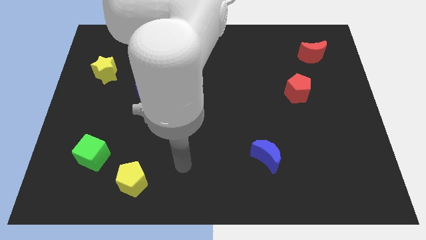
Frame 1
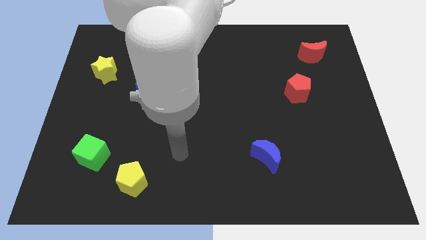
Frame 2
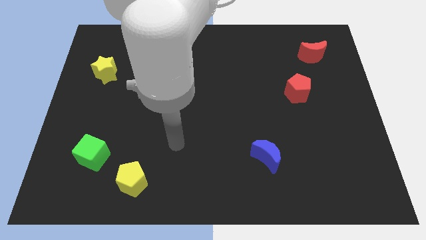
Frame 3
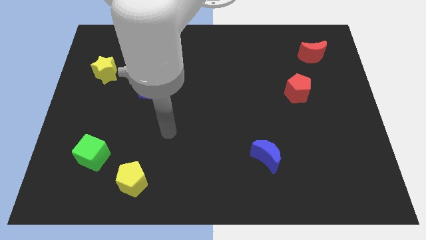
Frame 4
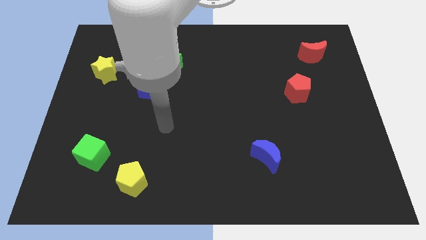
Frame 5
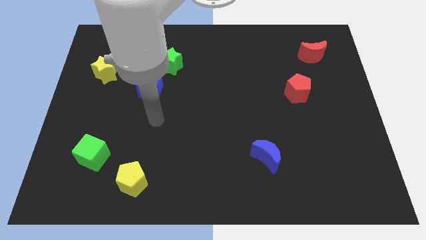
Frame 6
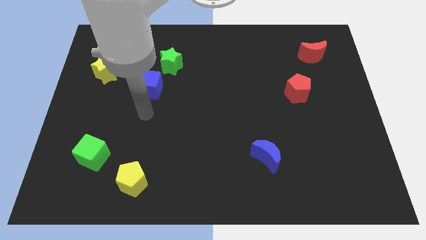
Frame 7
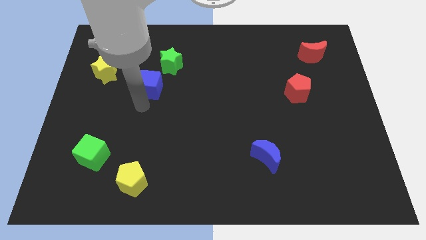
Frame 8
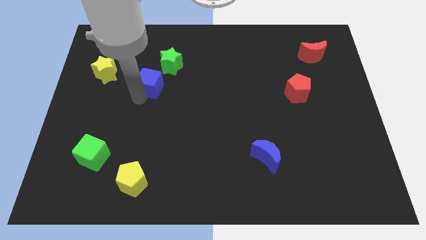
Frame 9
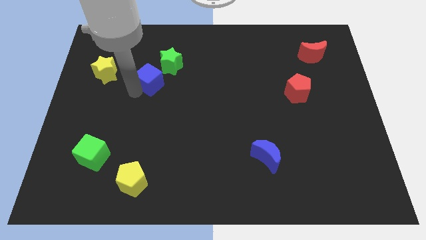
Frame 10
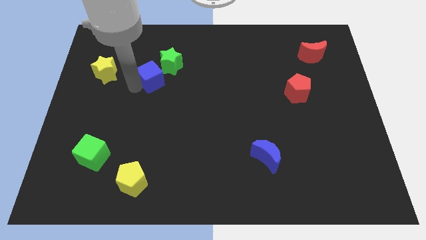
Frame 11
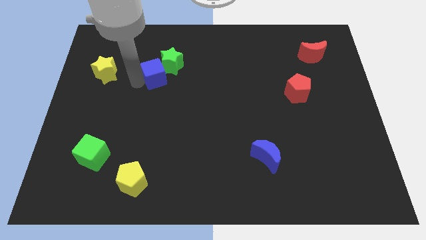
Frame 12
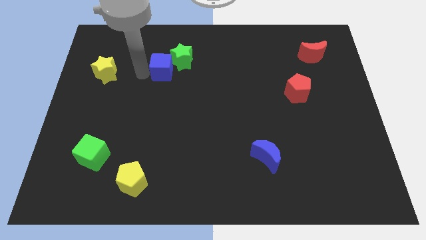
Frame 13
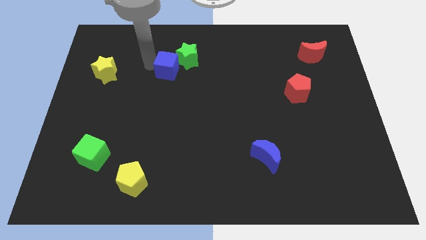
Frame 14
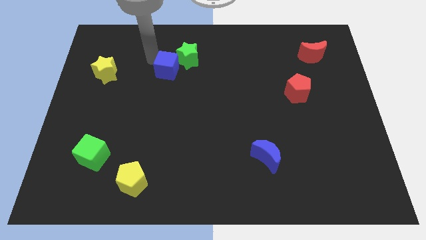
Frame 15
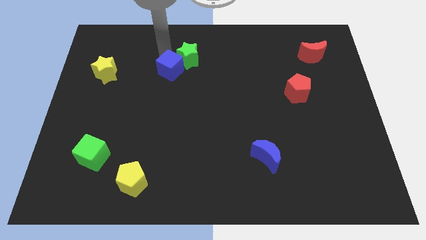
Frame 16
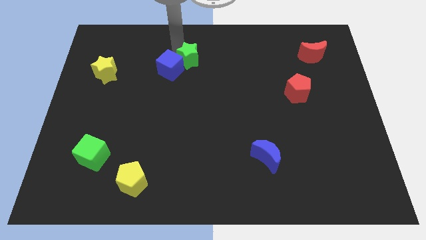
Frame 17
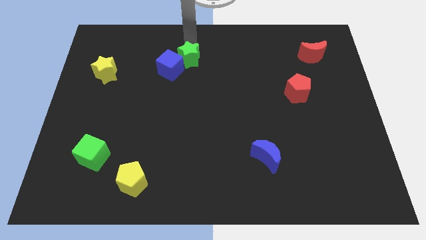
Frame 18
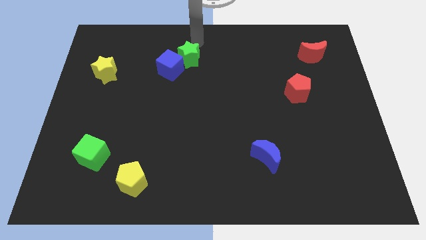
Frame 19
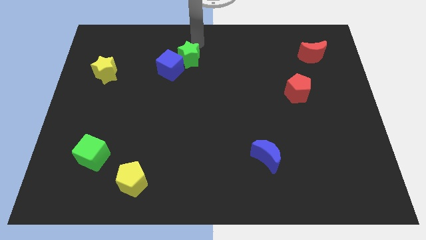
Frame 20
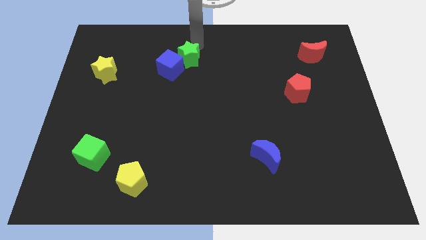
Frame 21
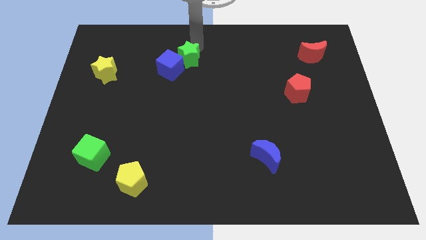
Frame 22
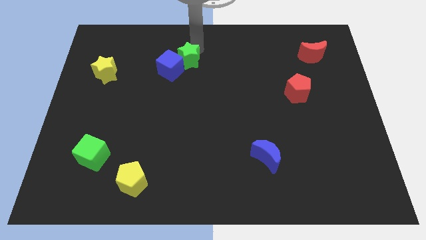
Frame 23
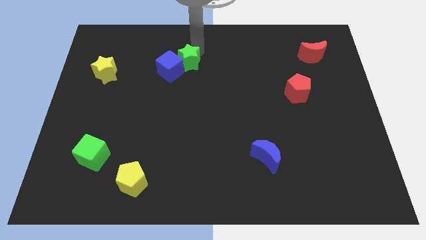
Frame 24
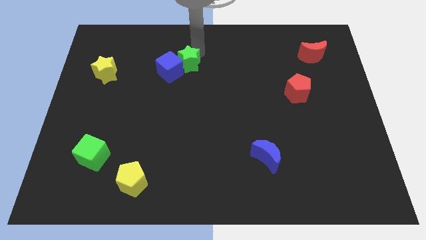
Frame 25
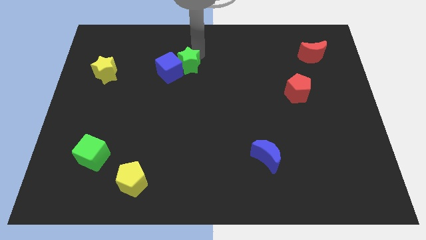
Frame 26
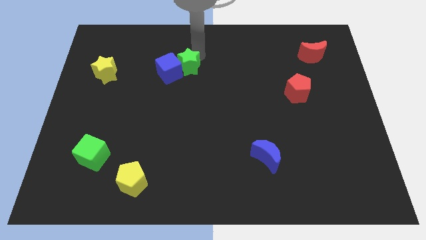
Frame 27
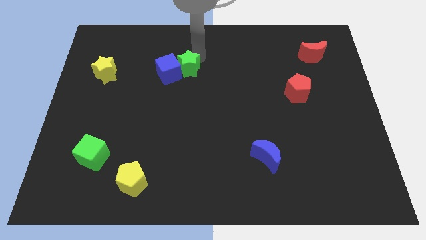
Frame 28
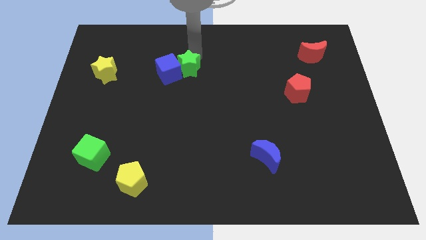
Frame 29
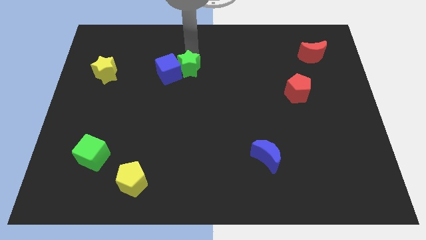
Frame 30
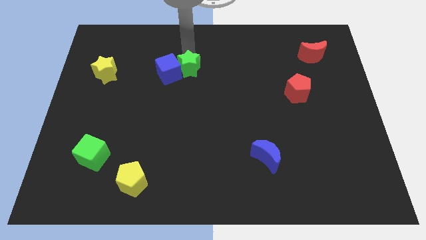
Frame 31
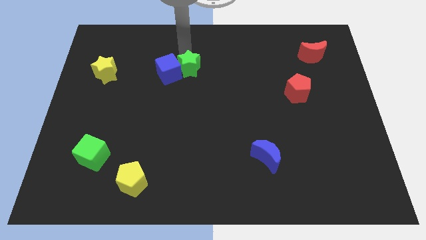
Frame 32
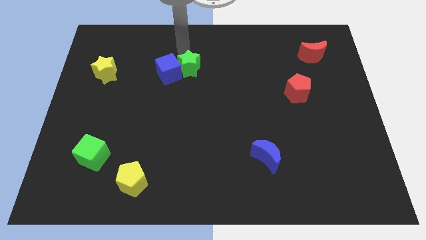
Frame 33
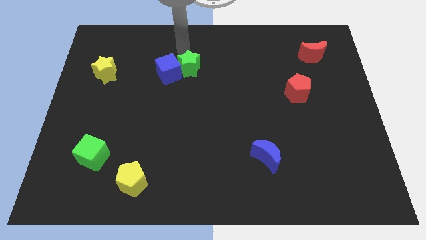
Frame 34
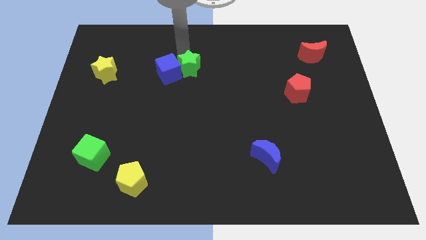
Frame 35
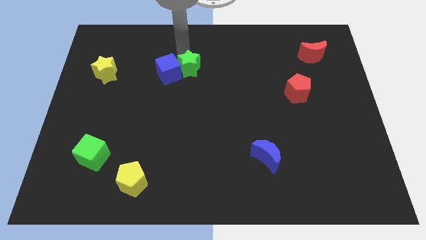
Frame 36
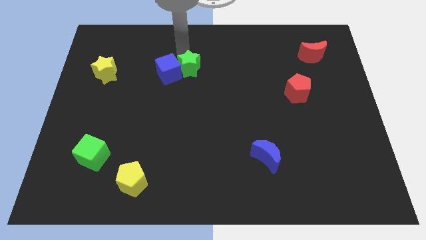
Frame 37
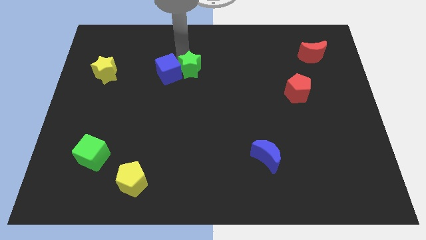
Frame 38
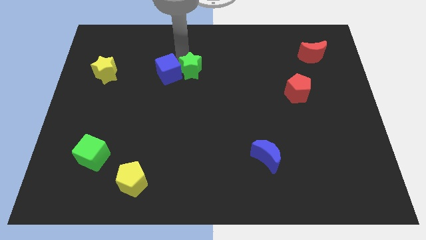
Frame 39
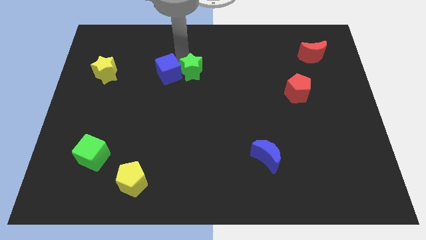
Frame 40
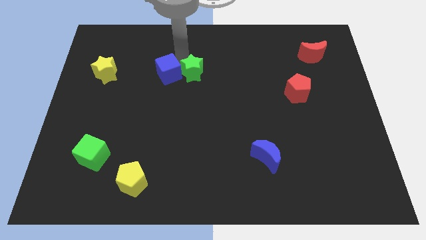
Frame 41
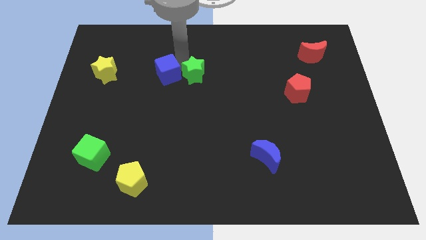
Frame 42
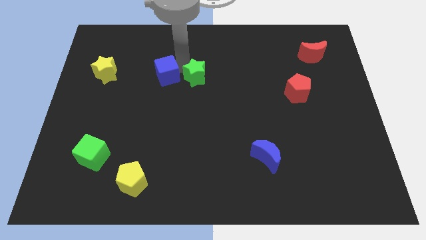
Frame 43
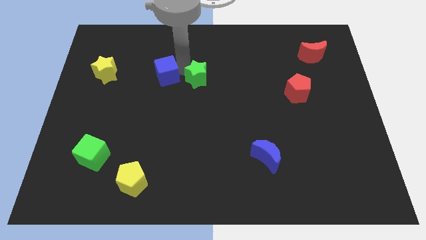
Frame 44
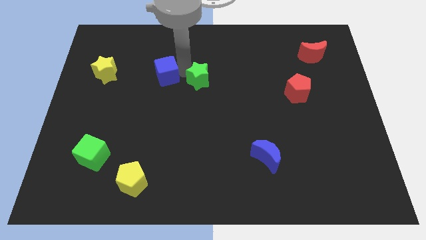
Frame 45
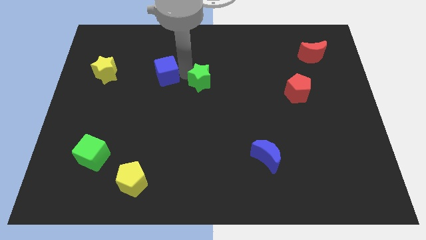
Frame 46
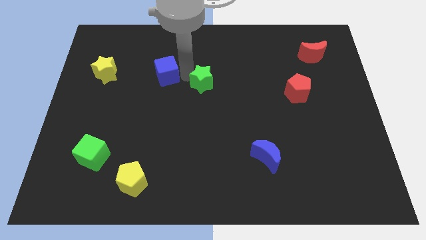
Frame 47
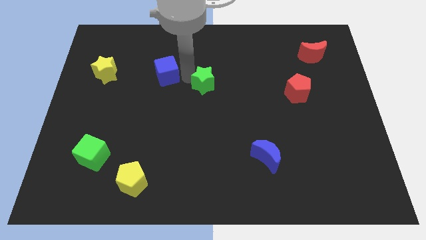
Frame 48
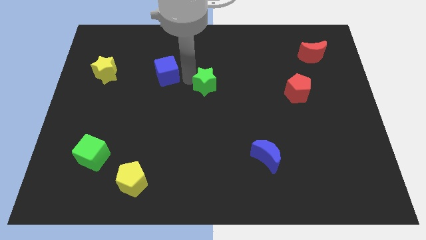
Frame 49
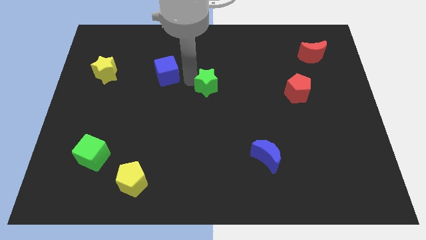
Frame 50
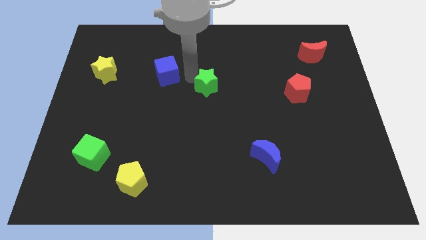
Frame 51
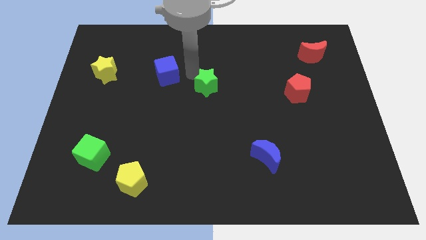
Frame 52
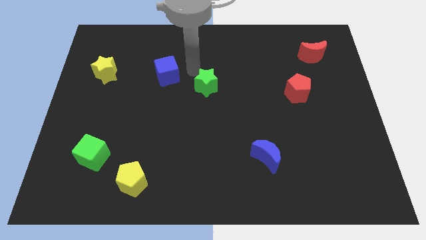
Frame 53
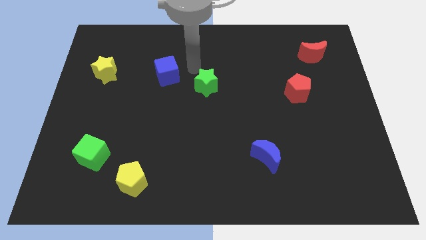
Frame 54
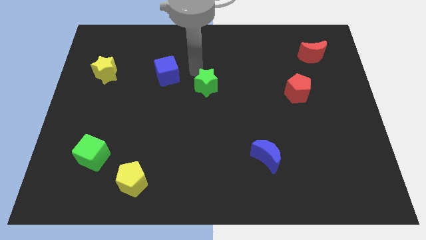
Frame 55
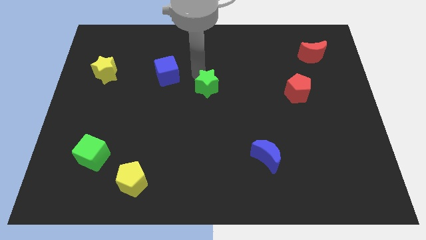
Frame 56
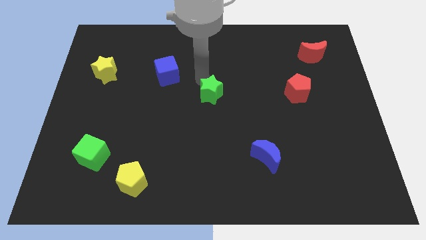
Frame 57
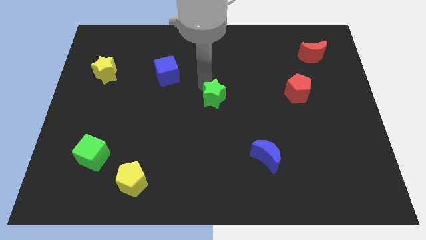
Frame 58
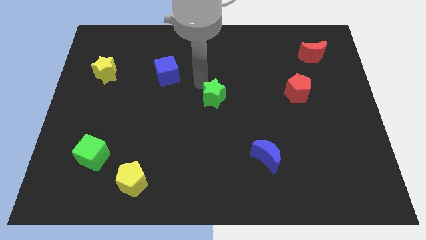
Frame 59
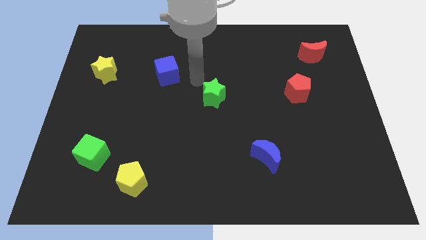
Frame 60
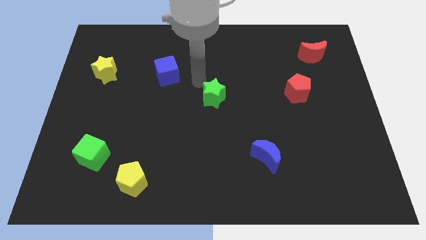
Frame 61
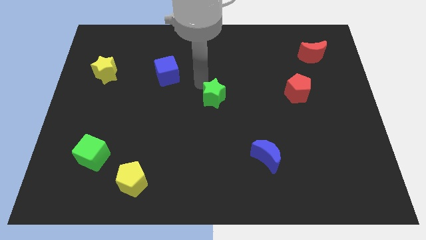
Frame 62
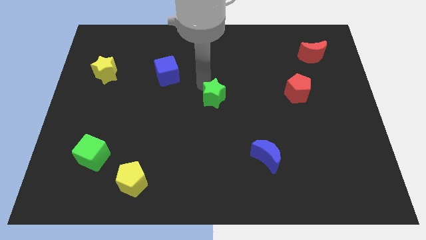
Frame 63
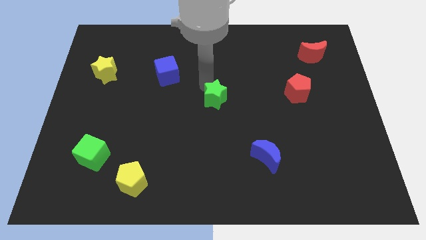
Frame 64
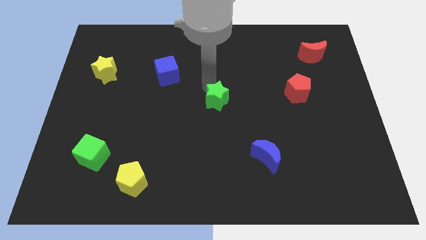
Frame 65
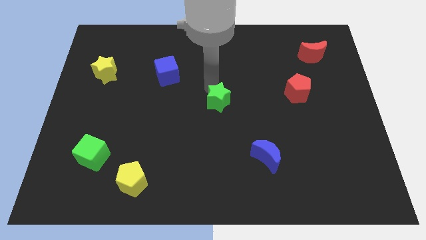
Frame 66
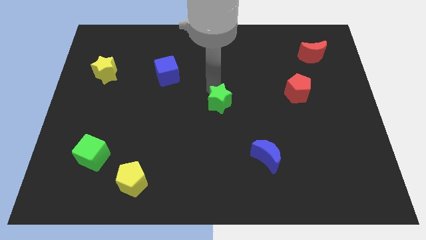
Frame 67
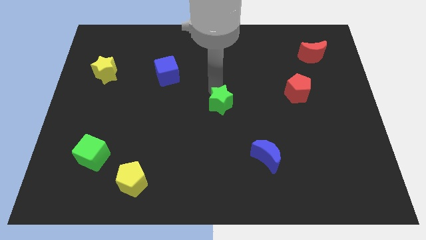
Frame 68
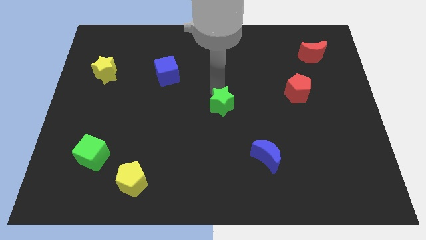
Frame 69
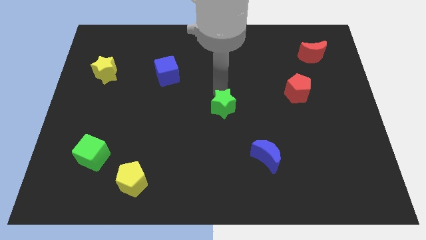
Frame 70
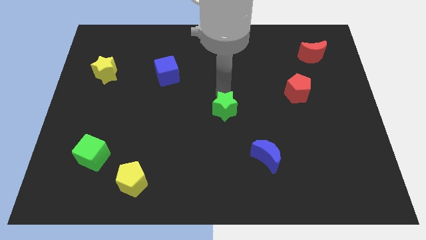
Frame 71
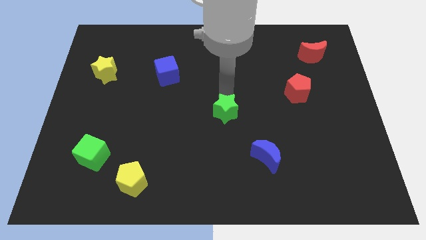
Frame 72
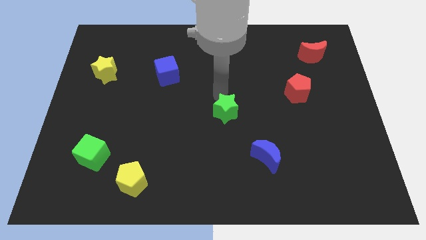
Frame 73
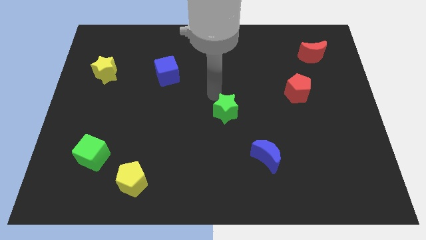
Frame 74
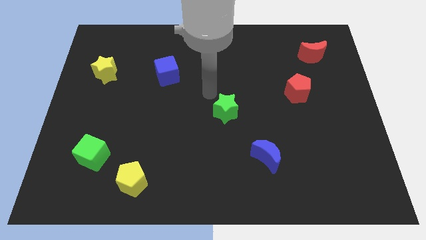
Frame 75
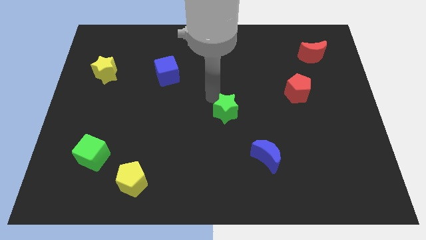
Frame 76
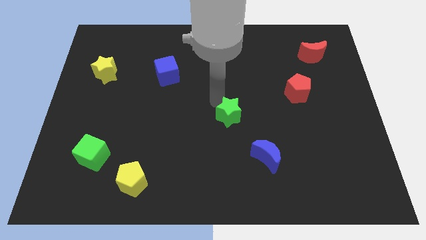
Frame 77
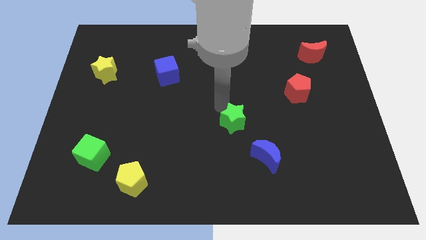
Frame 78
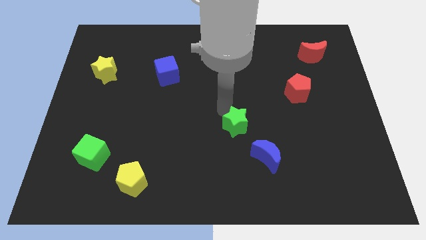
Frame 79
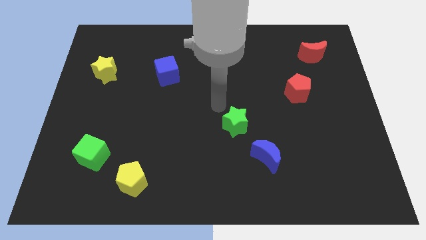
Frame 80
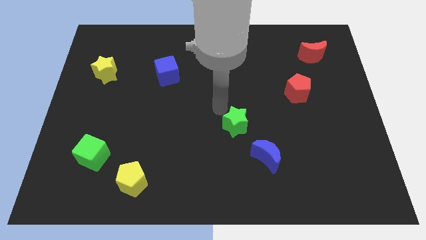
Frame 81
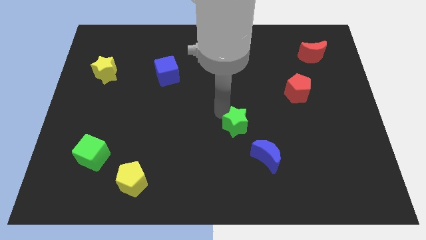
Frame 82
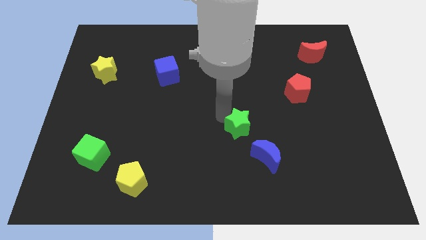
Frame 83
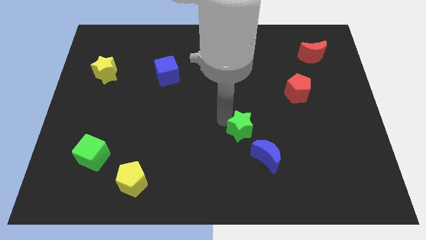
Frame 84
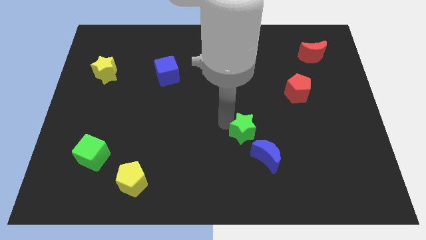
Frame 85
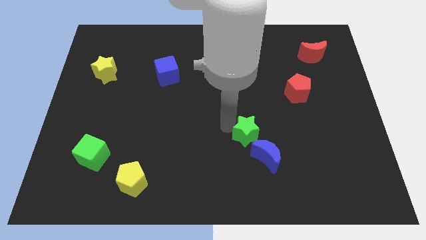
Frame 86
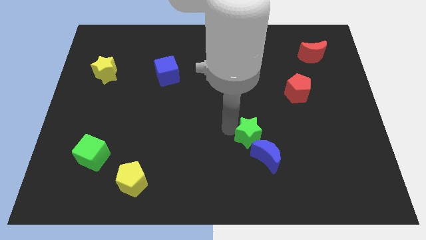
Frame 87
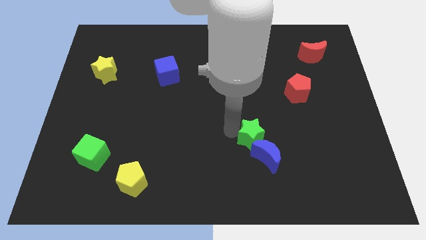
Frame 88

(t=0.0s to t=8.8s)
slide the green star towards the blue moon
